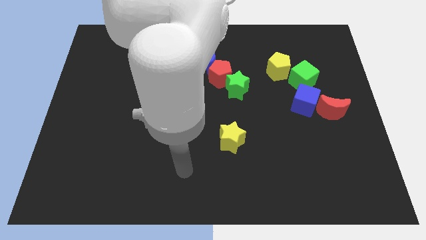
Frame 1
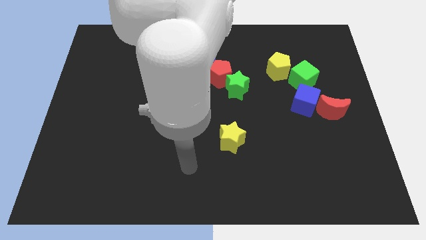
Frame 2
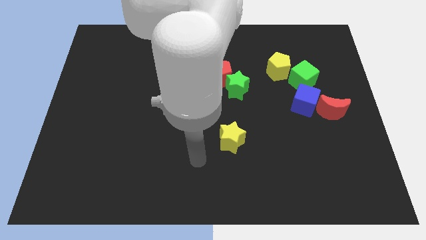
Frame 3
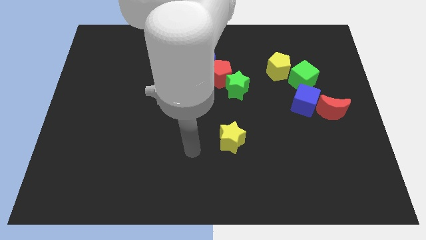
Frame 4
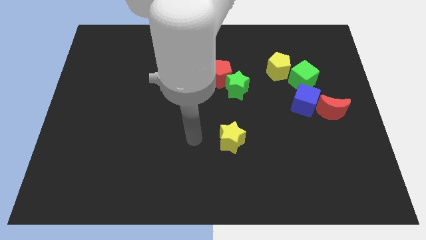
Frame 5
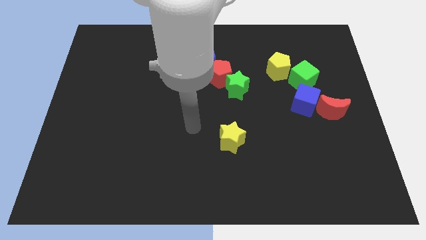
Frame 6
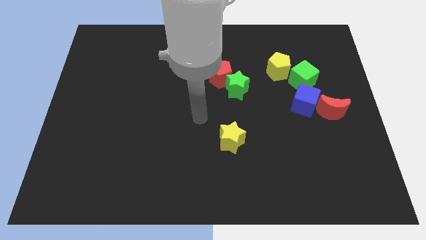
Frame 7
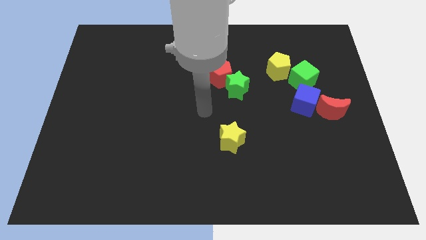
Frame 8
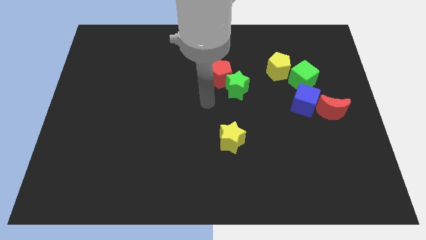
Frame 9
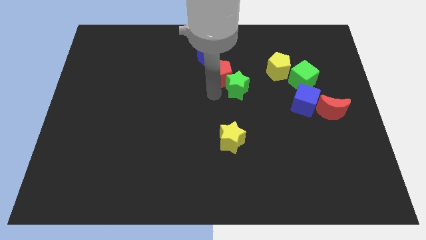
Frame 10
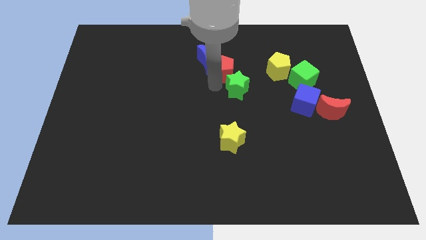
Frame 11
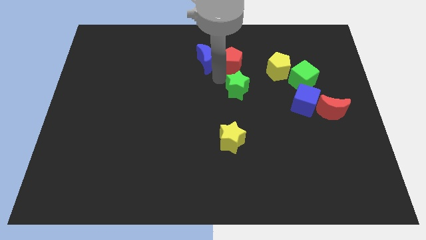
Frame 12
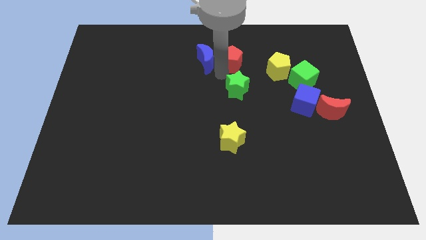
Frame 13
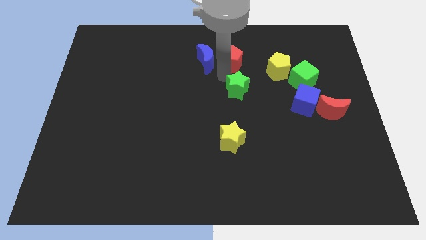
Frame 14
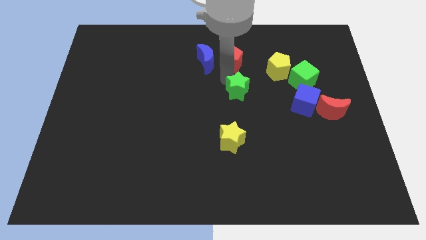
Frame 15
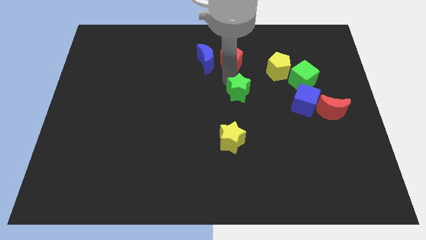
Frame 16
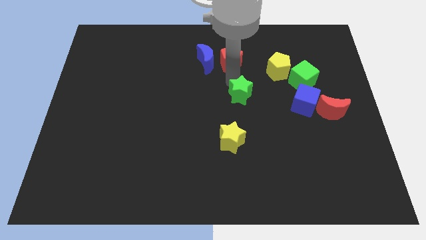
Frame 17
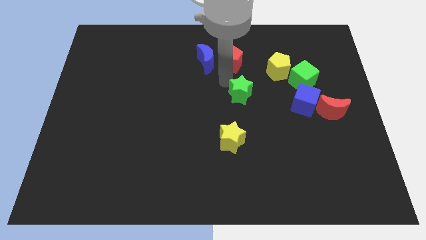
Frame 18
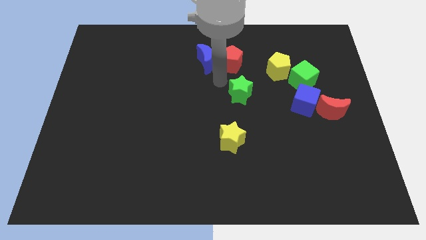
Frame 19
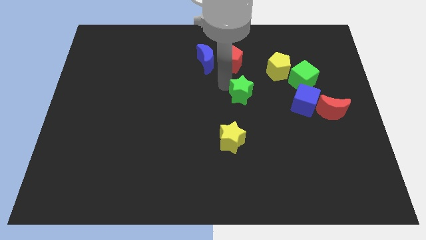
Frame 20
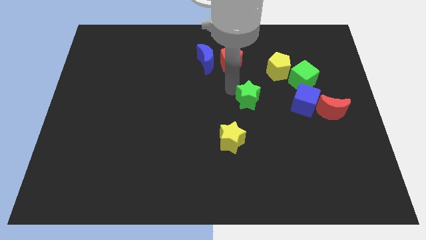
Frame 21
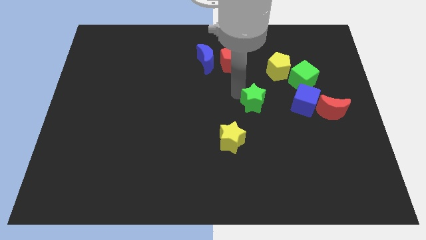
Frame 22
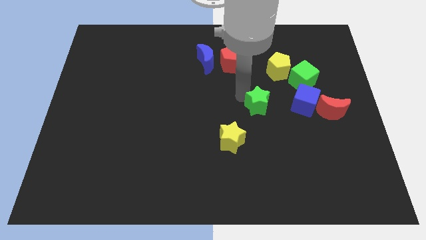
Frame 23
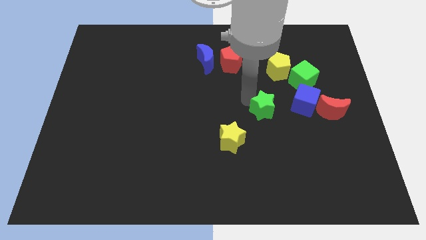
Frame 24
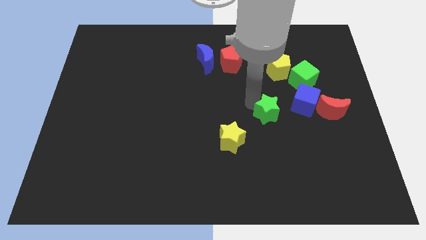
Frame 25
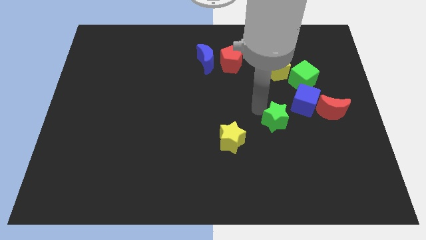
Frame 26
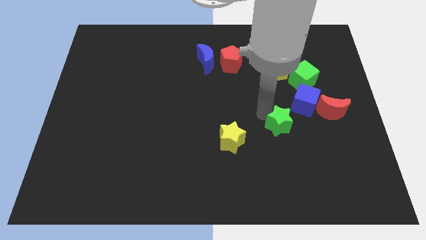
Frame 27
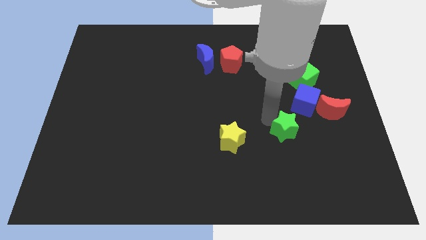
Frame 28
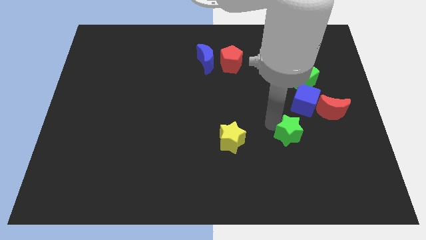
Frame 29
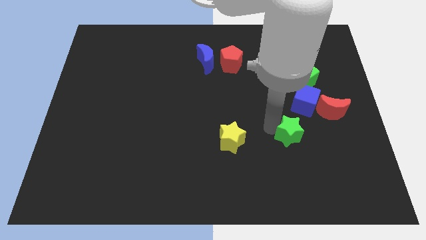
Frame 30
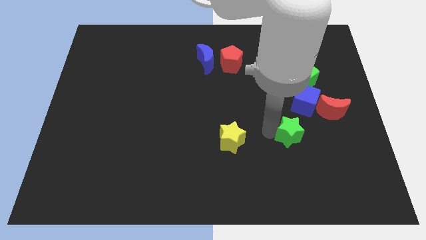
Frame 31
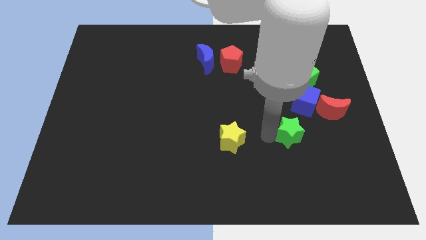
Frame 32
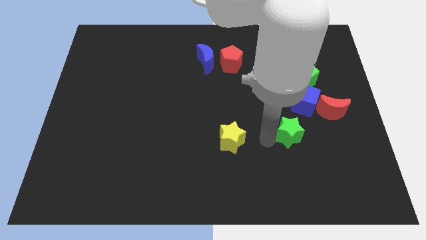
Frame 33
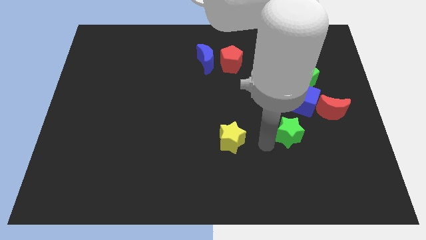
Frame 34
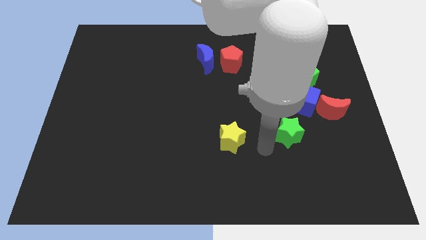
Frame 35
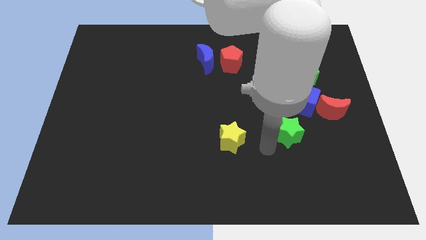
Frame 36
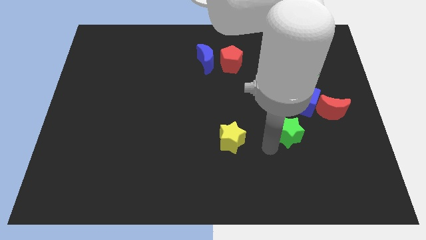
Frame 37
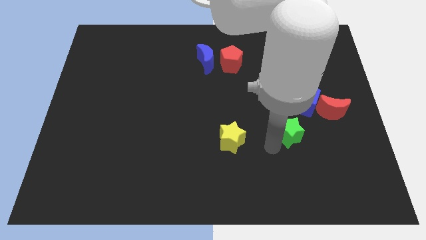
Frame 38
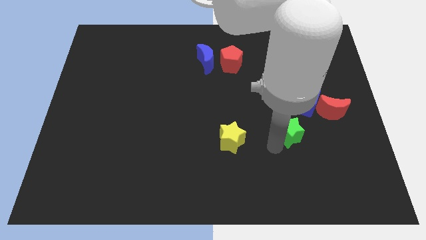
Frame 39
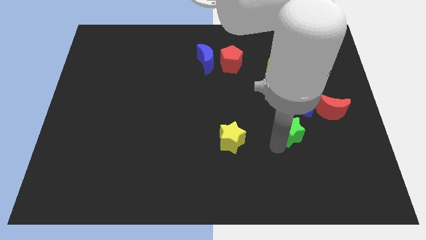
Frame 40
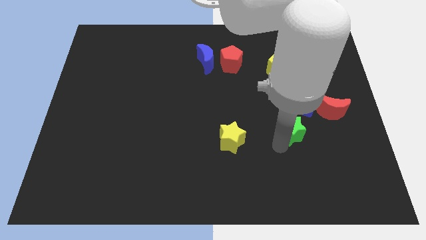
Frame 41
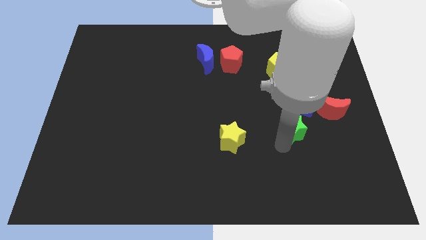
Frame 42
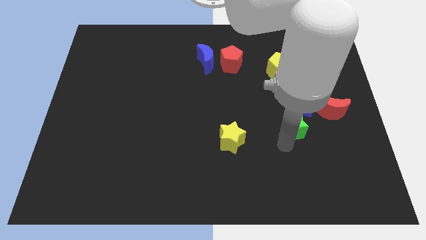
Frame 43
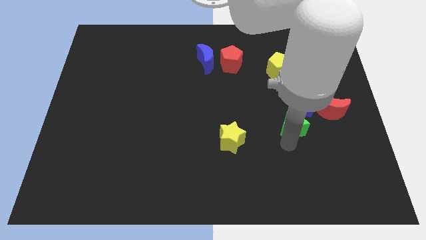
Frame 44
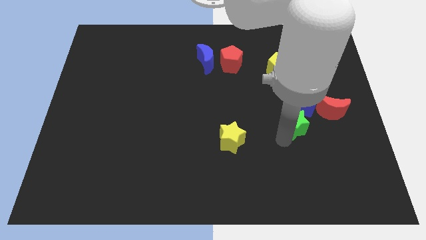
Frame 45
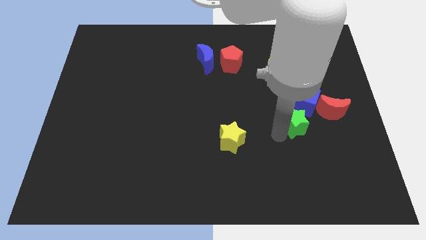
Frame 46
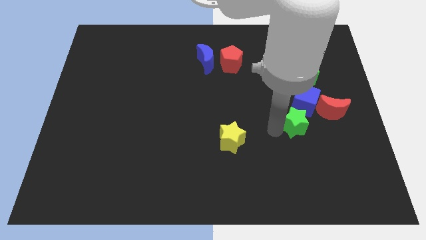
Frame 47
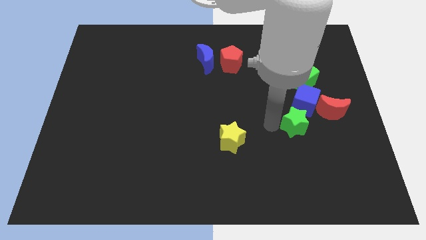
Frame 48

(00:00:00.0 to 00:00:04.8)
push the green star to the right slightly

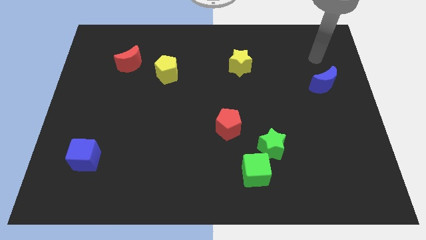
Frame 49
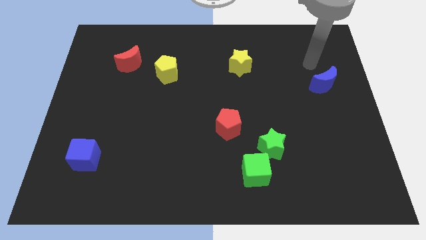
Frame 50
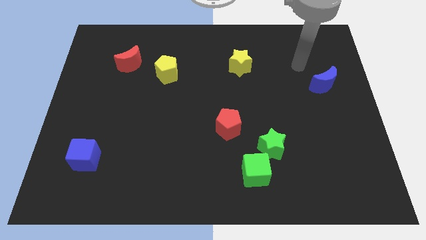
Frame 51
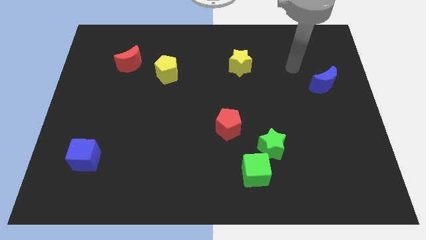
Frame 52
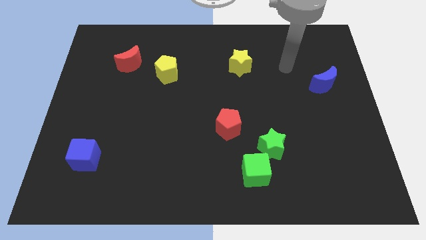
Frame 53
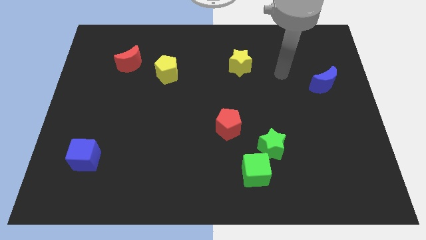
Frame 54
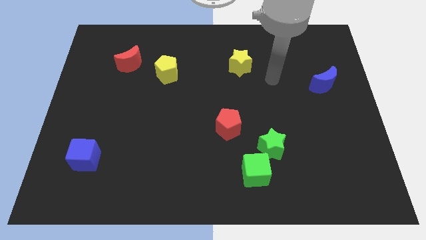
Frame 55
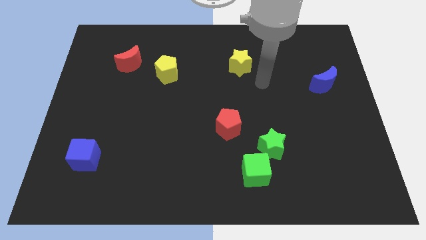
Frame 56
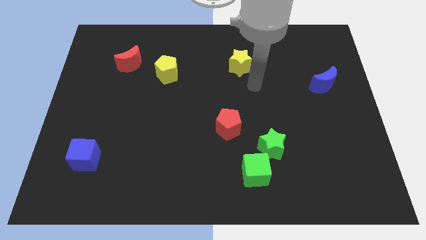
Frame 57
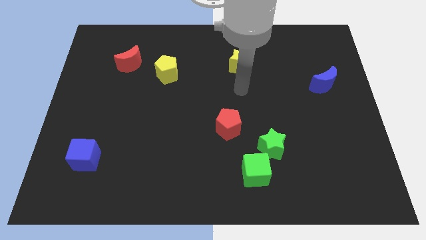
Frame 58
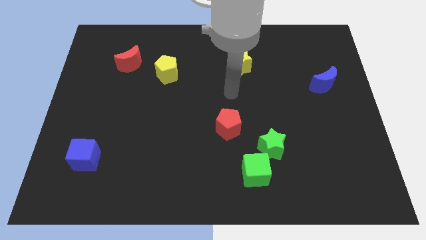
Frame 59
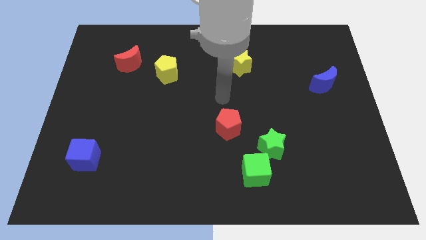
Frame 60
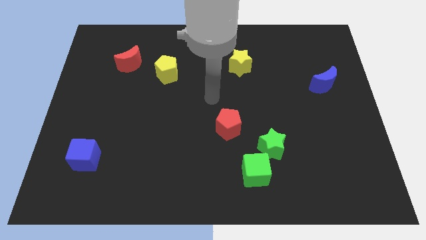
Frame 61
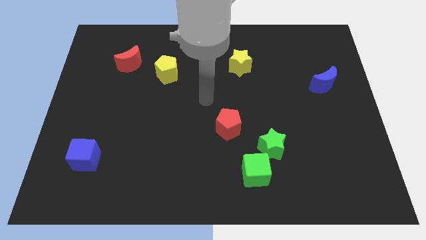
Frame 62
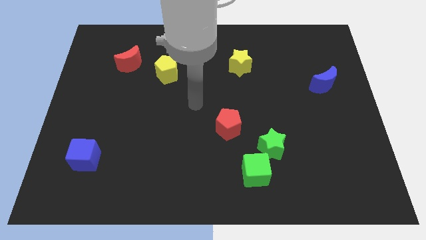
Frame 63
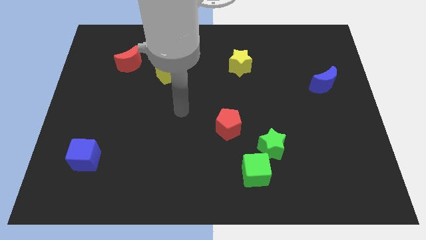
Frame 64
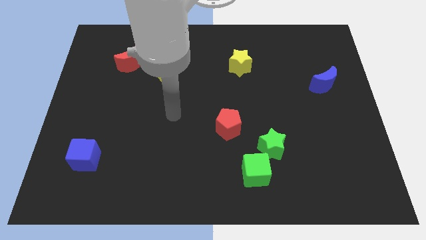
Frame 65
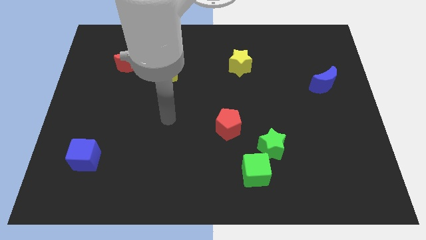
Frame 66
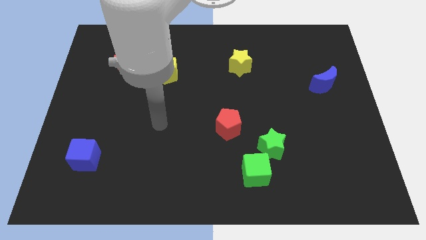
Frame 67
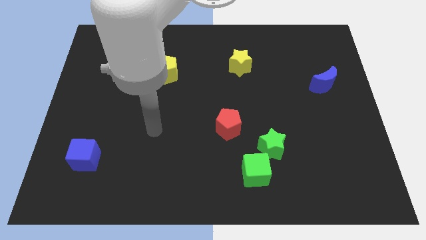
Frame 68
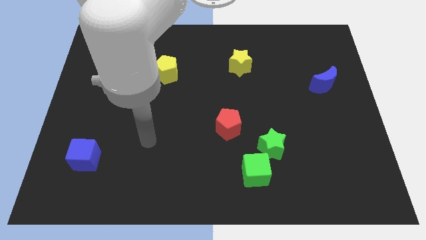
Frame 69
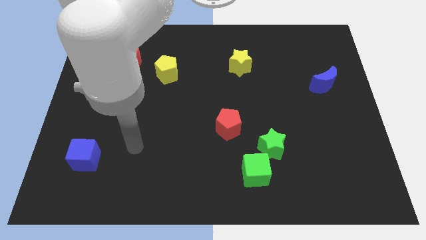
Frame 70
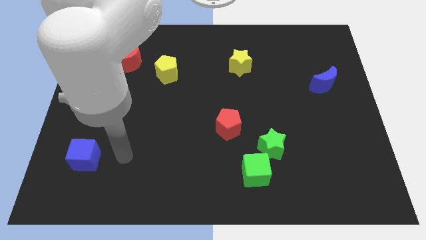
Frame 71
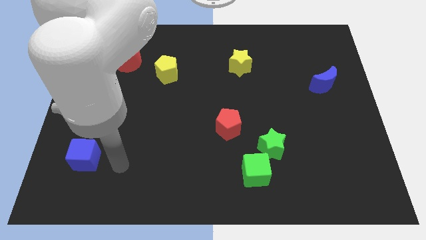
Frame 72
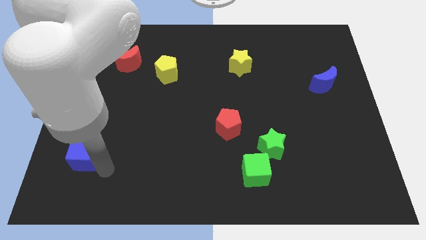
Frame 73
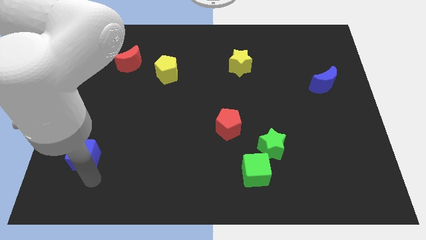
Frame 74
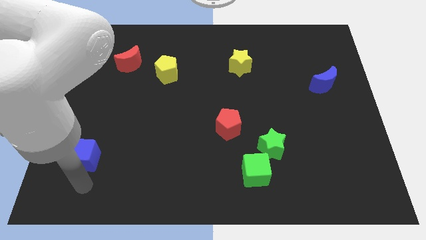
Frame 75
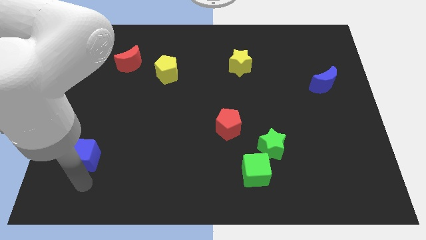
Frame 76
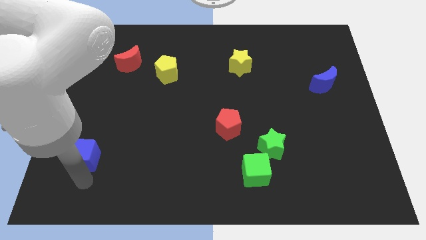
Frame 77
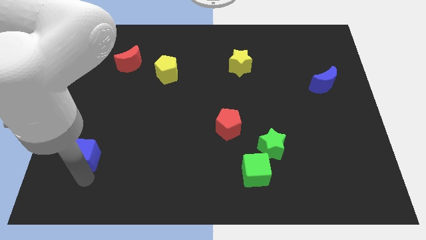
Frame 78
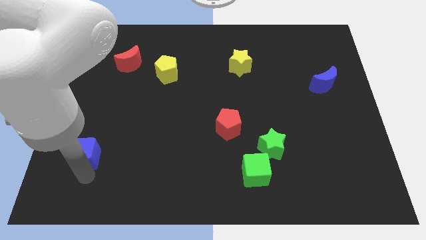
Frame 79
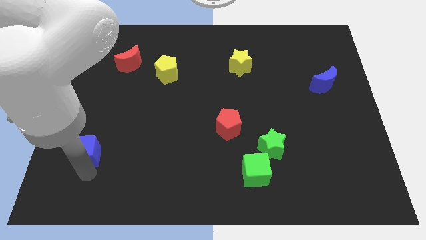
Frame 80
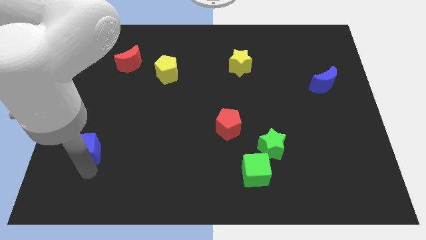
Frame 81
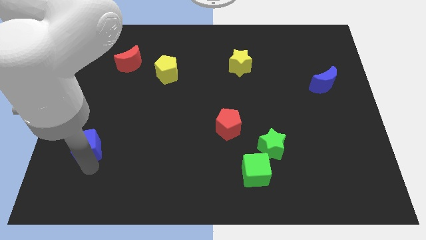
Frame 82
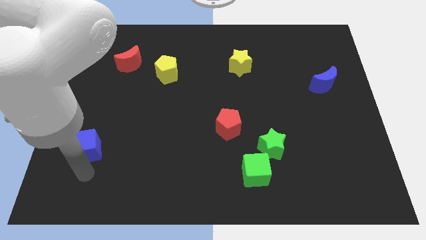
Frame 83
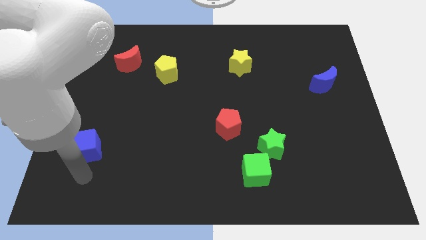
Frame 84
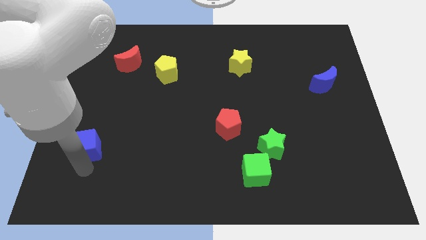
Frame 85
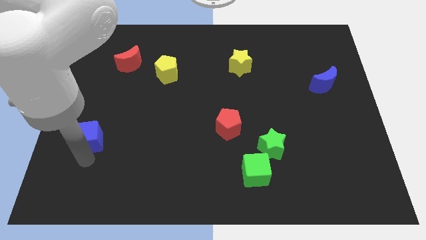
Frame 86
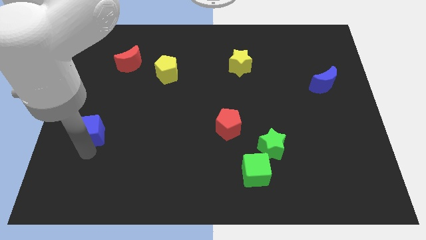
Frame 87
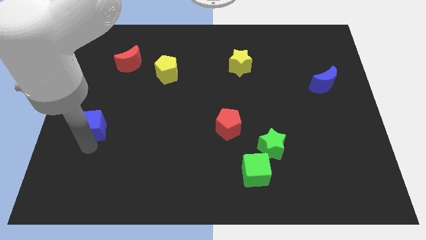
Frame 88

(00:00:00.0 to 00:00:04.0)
move the blue cube upwards a little bit
